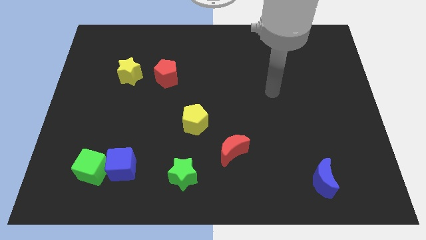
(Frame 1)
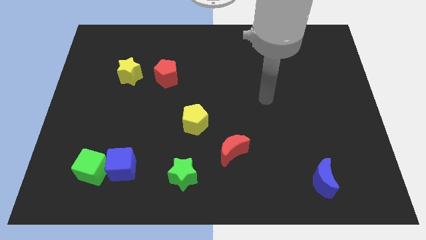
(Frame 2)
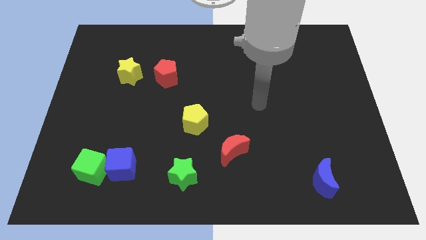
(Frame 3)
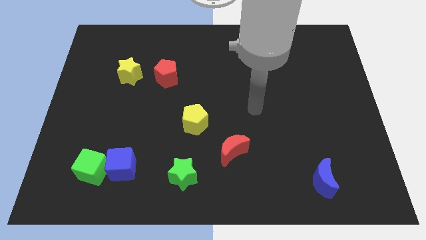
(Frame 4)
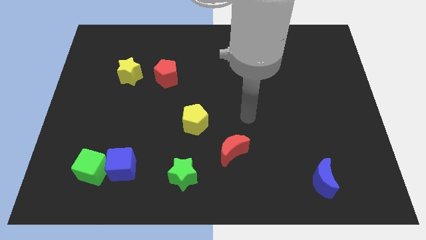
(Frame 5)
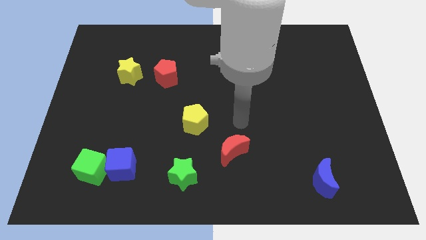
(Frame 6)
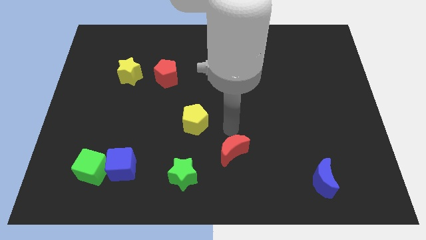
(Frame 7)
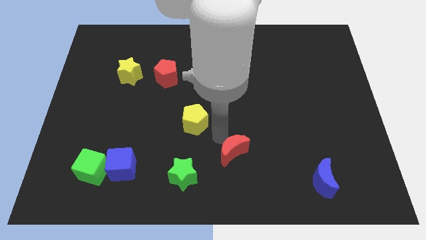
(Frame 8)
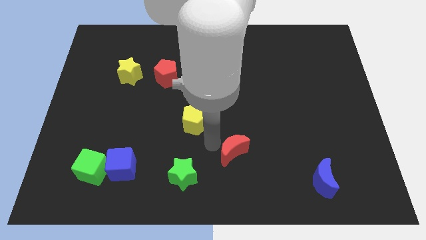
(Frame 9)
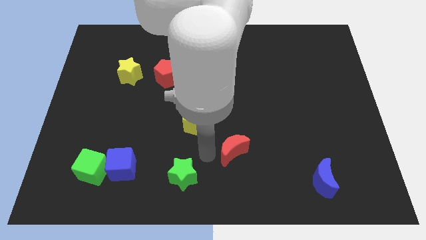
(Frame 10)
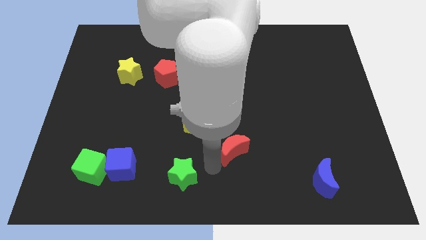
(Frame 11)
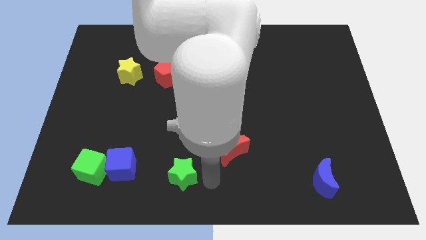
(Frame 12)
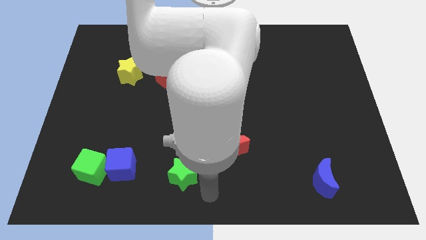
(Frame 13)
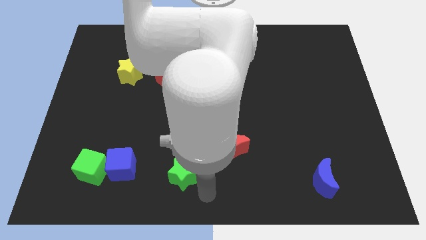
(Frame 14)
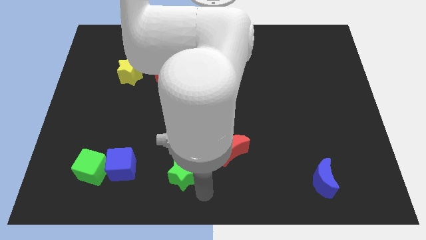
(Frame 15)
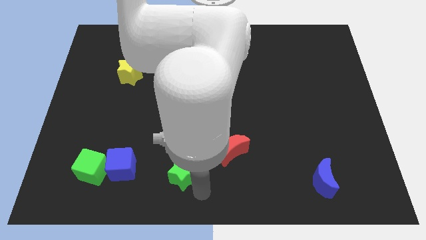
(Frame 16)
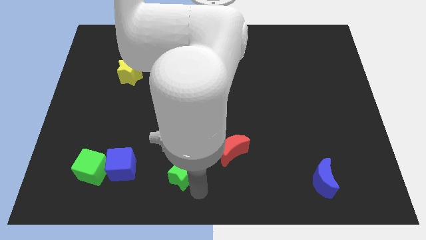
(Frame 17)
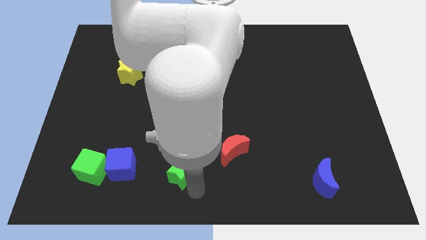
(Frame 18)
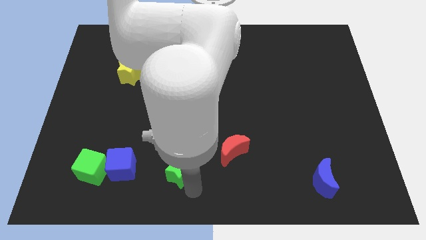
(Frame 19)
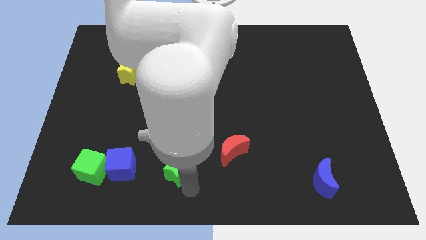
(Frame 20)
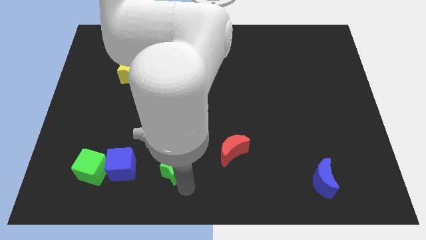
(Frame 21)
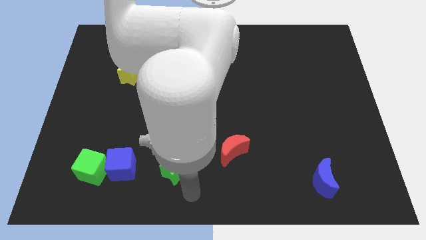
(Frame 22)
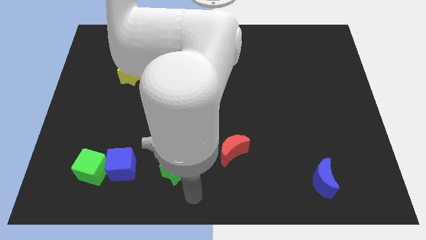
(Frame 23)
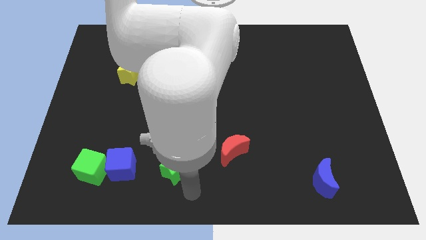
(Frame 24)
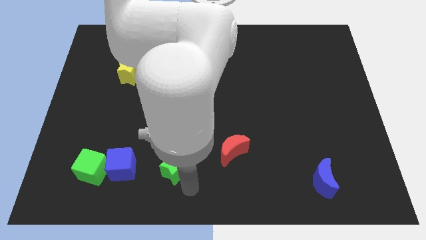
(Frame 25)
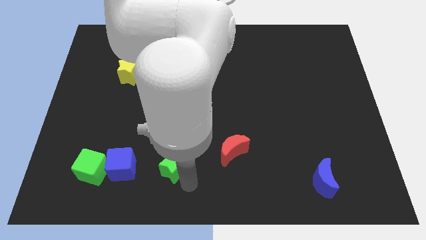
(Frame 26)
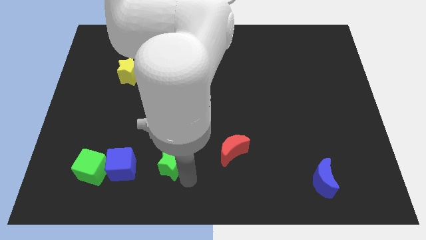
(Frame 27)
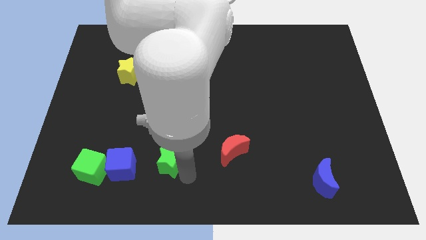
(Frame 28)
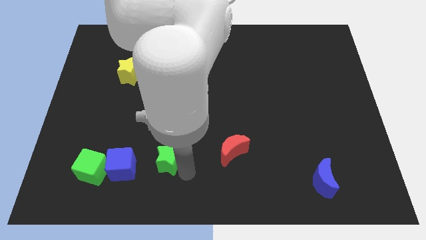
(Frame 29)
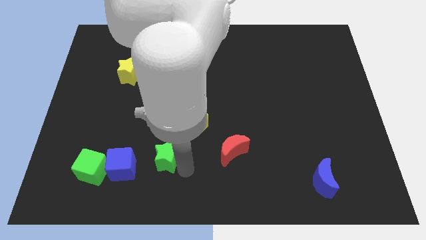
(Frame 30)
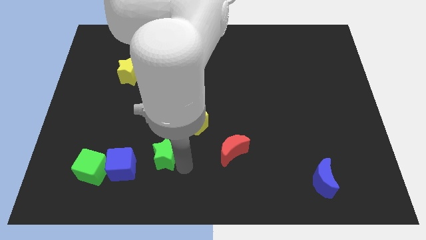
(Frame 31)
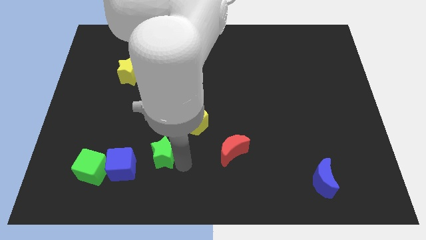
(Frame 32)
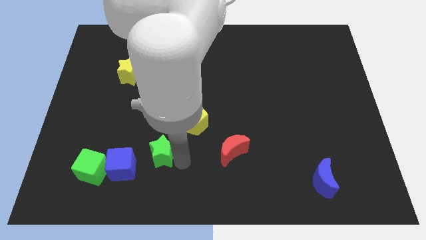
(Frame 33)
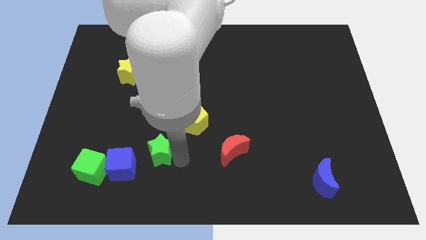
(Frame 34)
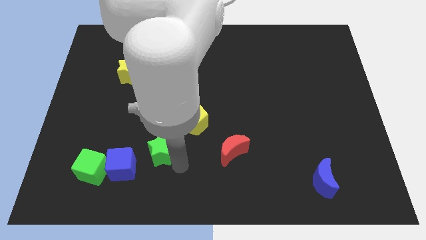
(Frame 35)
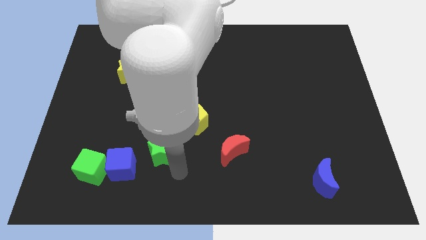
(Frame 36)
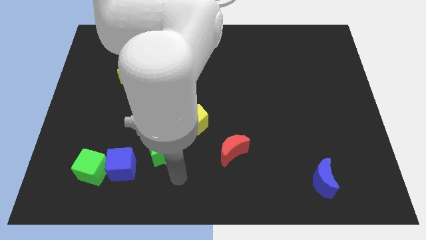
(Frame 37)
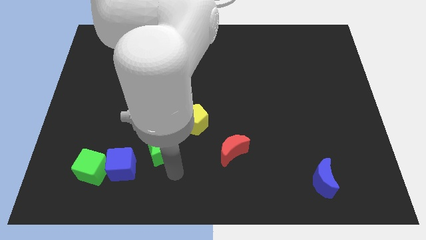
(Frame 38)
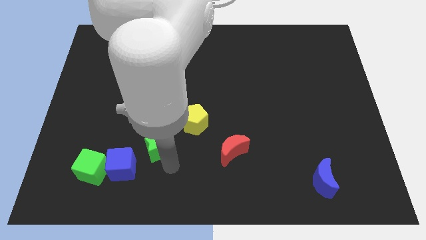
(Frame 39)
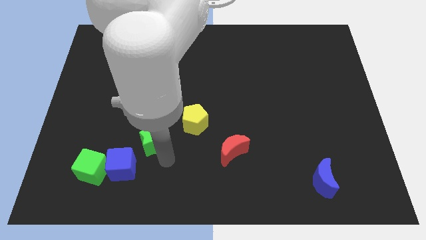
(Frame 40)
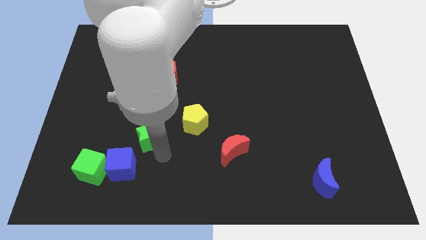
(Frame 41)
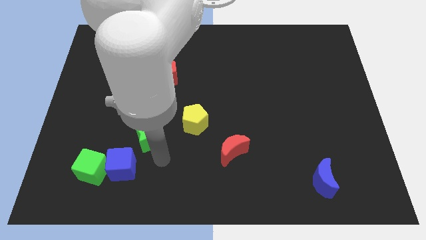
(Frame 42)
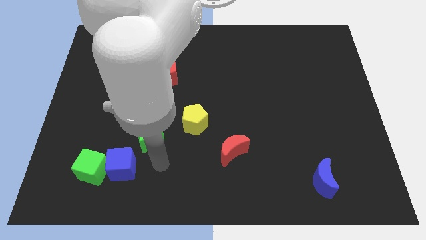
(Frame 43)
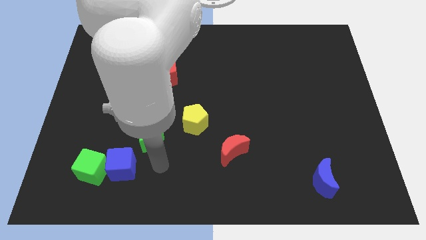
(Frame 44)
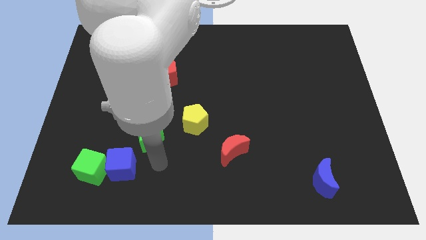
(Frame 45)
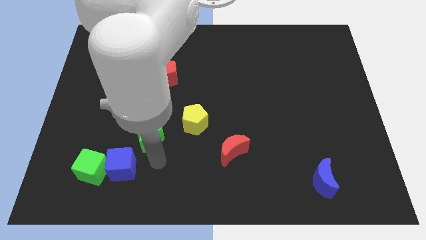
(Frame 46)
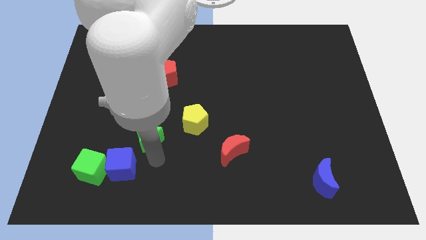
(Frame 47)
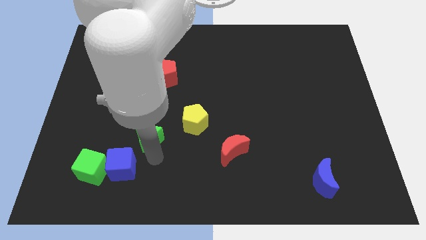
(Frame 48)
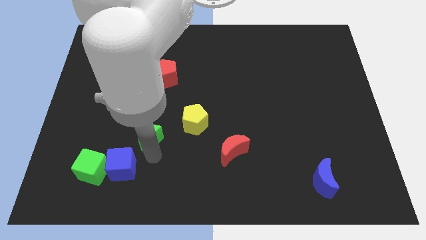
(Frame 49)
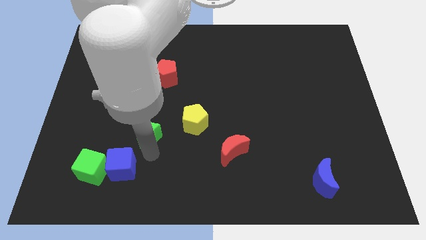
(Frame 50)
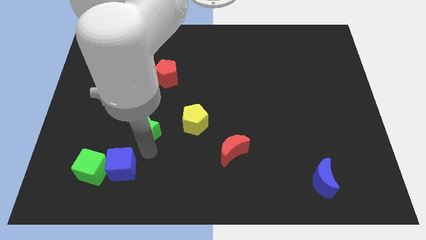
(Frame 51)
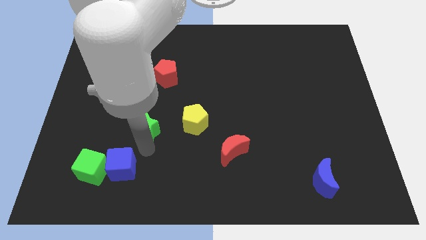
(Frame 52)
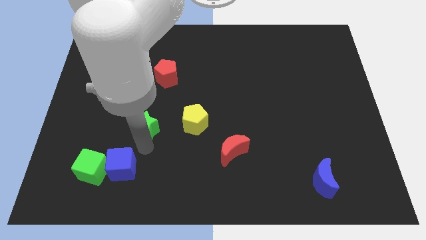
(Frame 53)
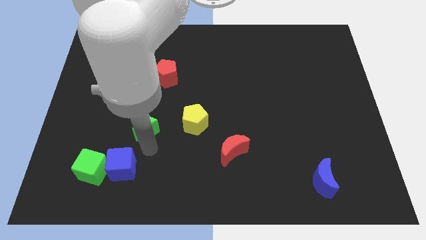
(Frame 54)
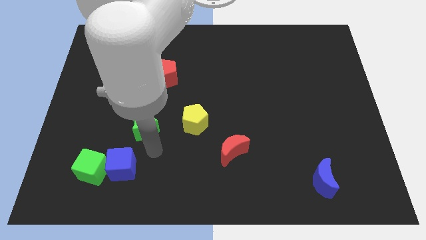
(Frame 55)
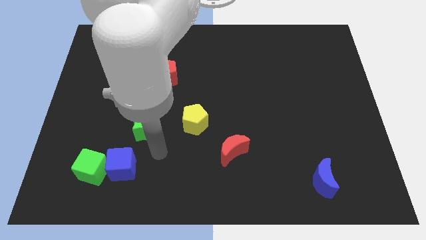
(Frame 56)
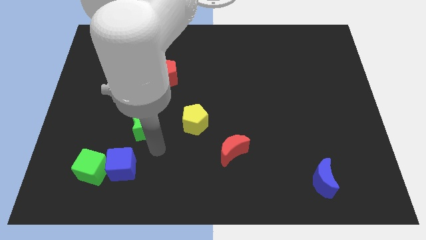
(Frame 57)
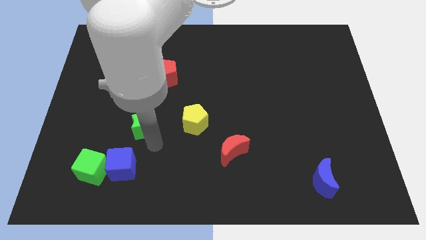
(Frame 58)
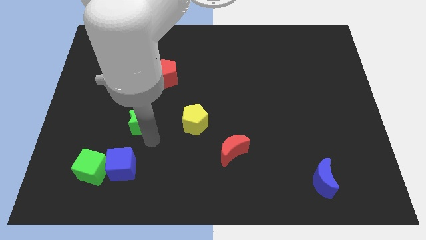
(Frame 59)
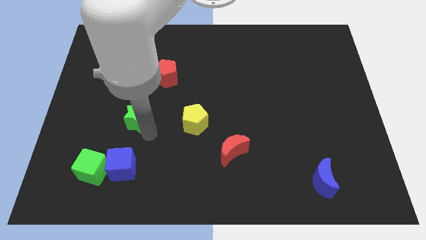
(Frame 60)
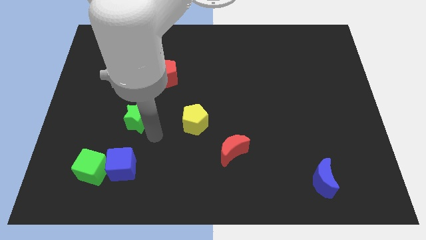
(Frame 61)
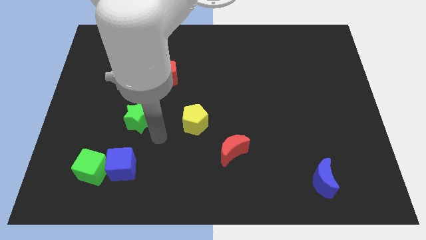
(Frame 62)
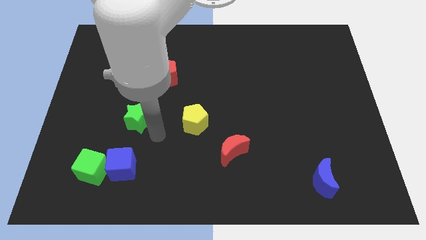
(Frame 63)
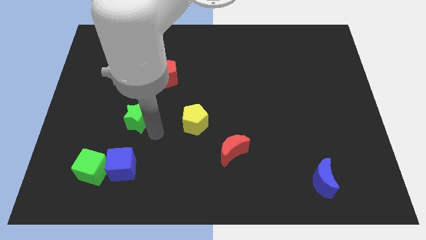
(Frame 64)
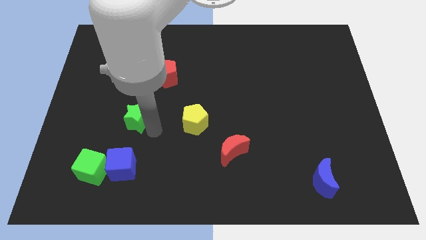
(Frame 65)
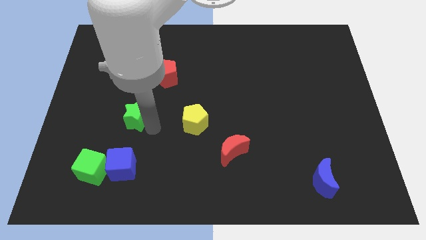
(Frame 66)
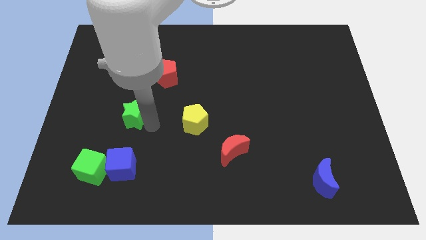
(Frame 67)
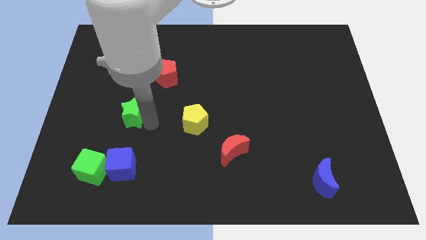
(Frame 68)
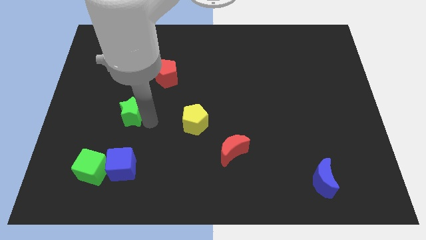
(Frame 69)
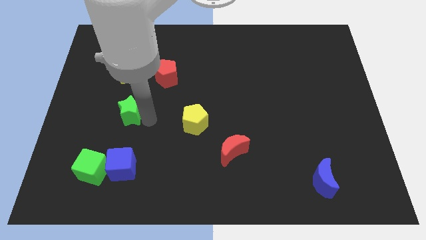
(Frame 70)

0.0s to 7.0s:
push the green star diagonally upwards and to the left

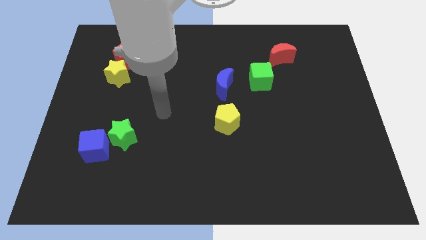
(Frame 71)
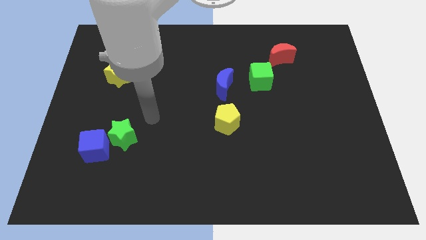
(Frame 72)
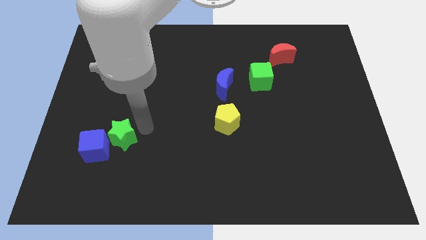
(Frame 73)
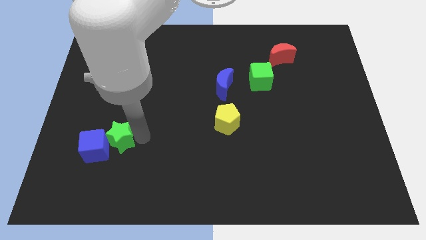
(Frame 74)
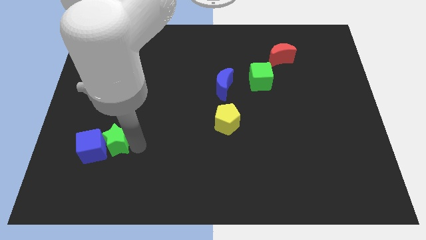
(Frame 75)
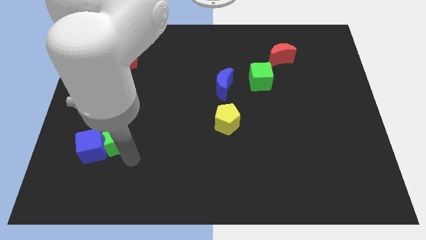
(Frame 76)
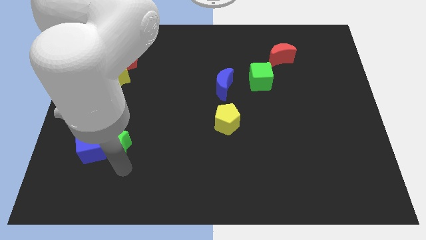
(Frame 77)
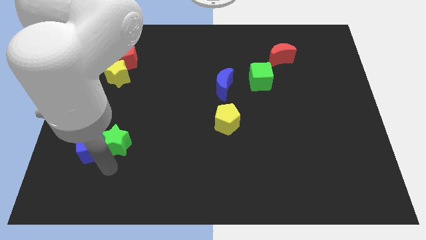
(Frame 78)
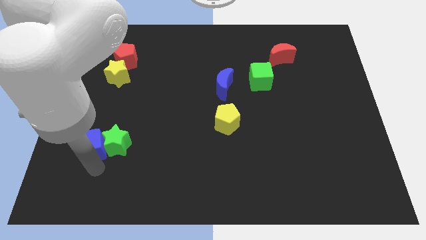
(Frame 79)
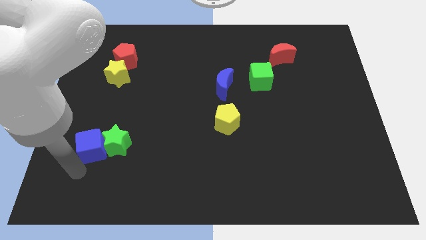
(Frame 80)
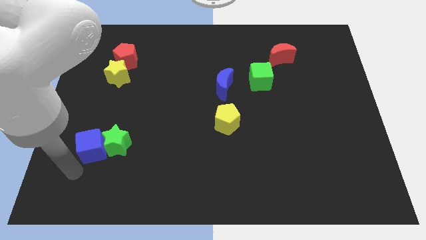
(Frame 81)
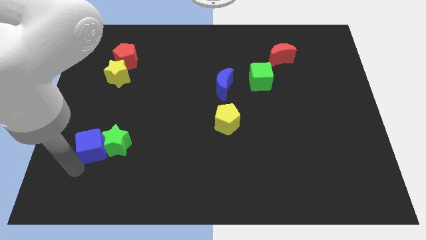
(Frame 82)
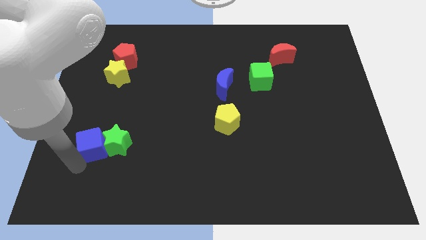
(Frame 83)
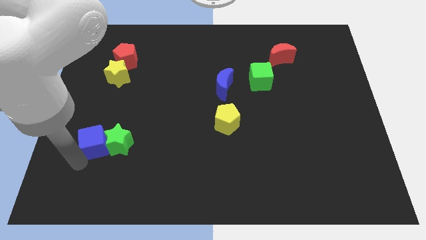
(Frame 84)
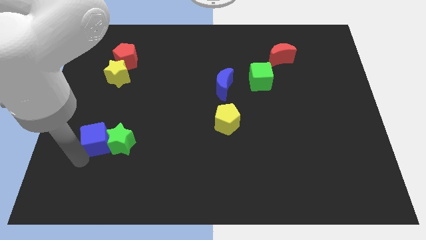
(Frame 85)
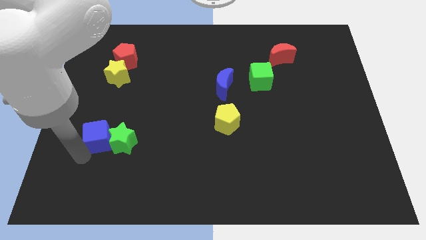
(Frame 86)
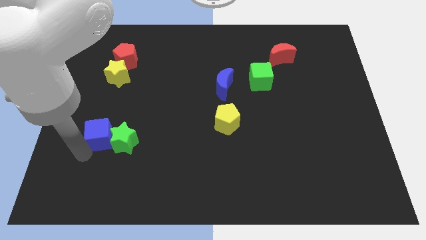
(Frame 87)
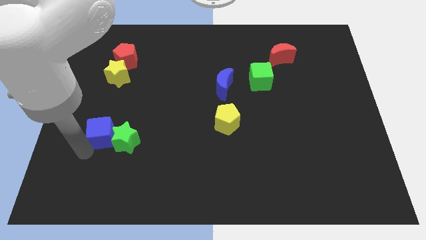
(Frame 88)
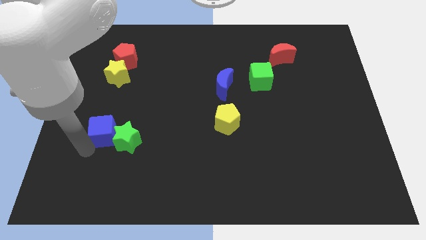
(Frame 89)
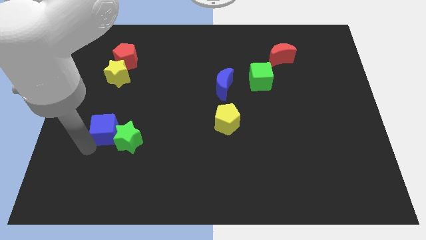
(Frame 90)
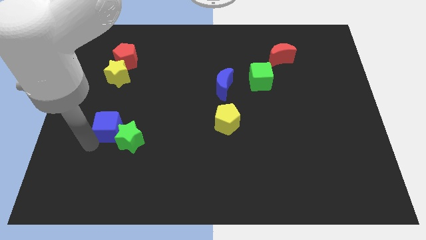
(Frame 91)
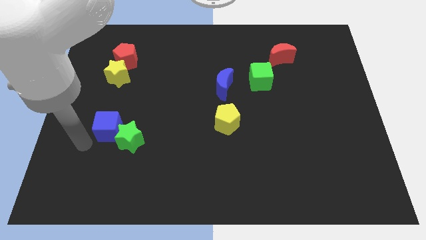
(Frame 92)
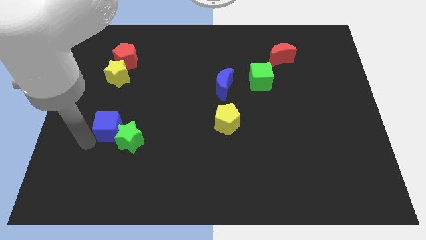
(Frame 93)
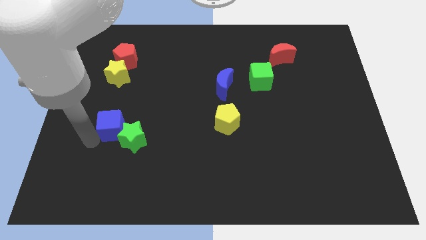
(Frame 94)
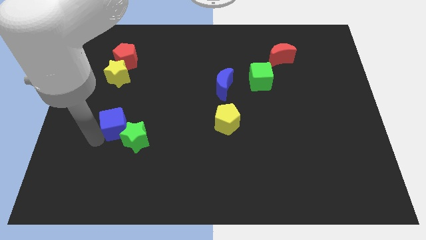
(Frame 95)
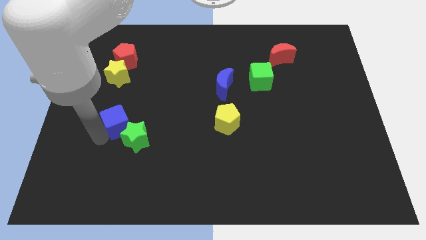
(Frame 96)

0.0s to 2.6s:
move the blue cube a little bit upwards and to the right diagonally
